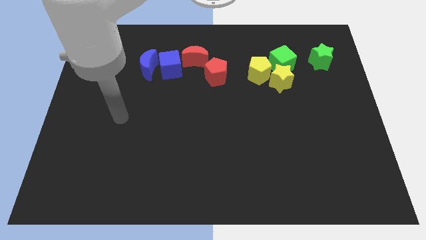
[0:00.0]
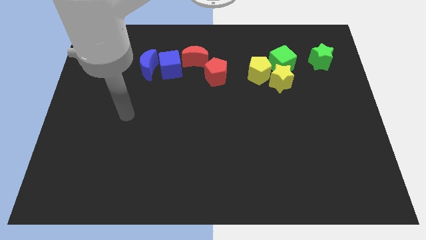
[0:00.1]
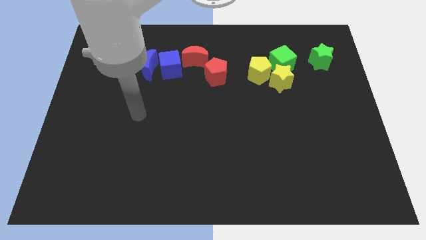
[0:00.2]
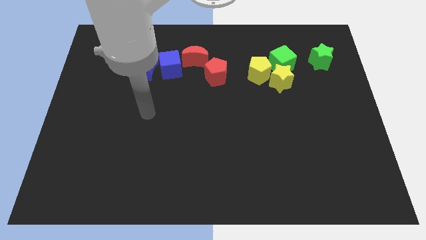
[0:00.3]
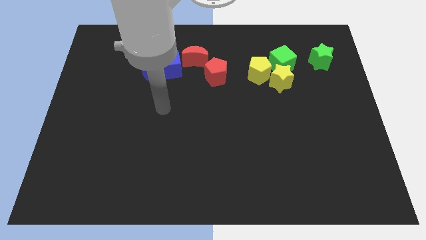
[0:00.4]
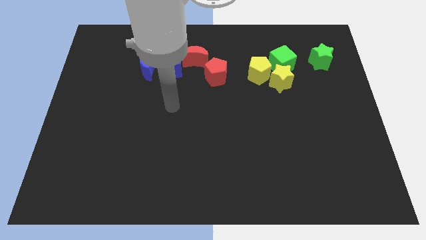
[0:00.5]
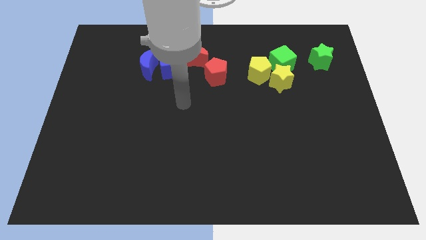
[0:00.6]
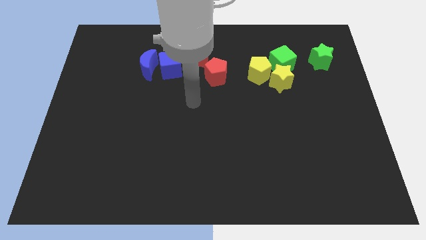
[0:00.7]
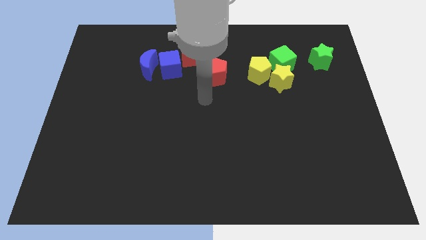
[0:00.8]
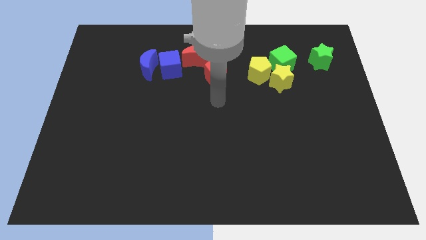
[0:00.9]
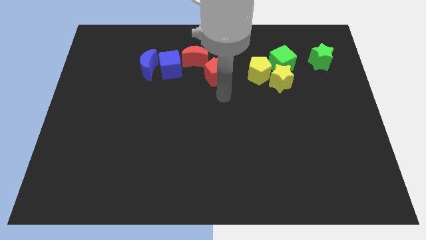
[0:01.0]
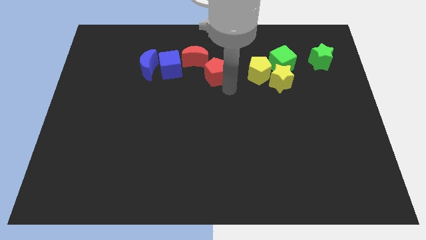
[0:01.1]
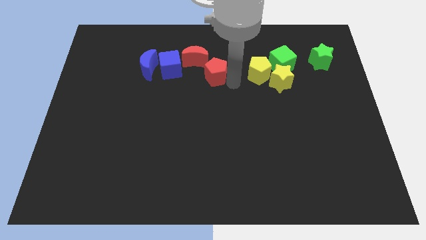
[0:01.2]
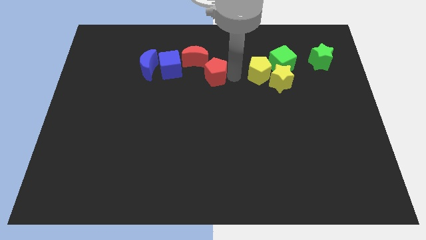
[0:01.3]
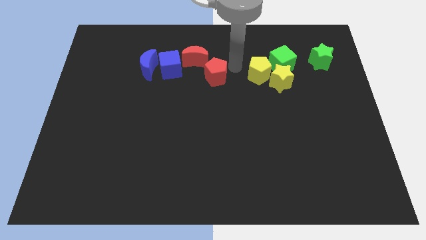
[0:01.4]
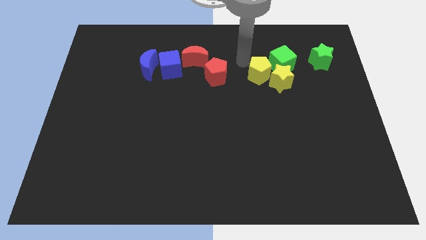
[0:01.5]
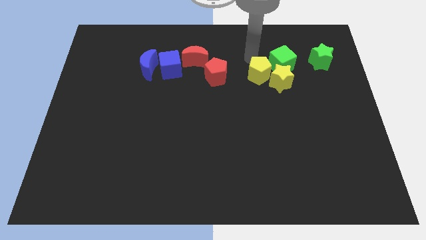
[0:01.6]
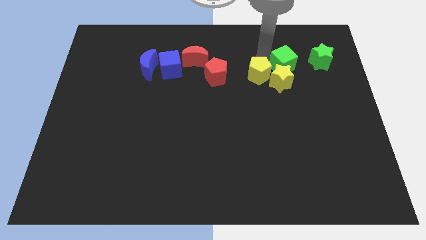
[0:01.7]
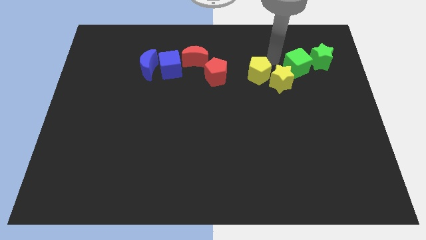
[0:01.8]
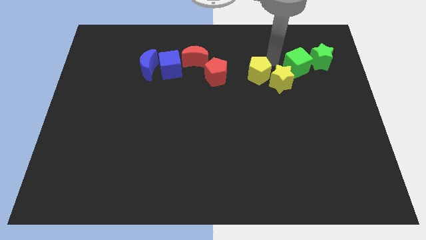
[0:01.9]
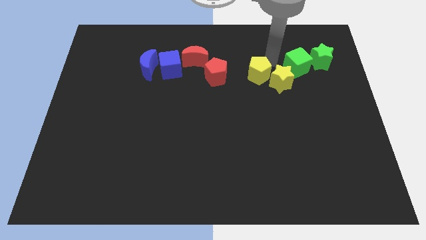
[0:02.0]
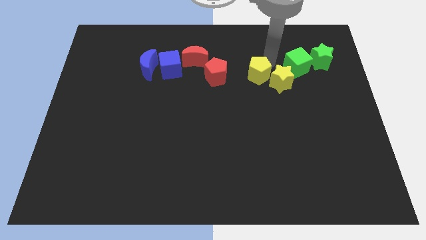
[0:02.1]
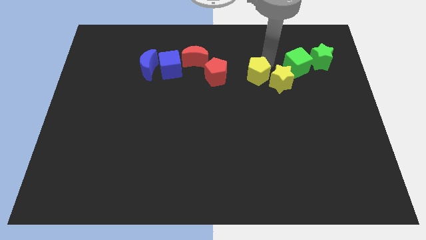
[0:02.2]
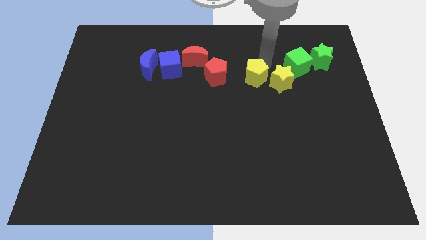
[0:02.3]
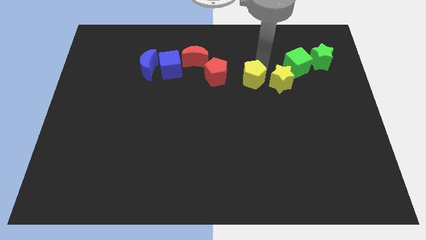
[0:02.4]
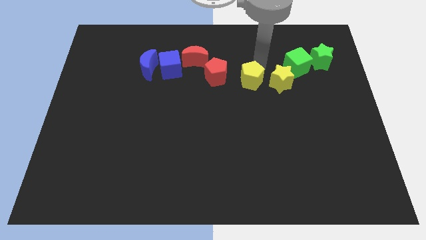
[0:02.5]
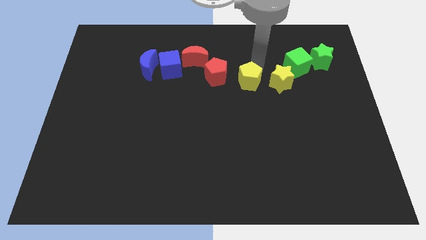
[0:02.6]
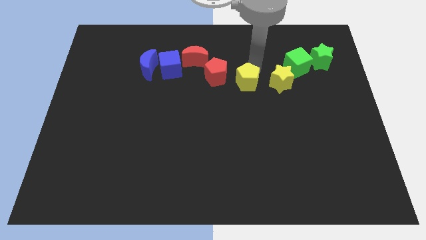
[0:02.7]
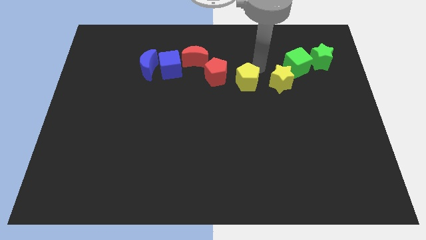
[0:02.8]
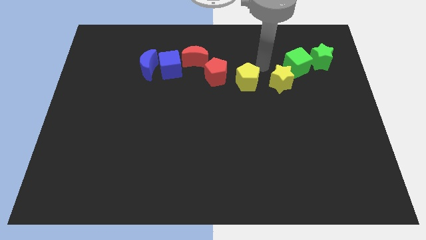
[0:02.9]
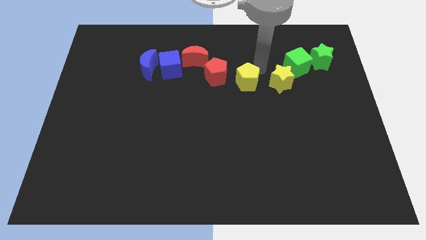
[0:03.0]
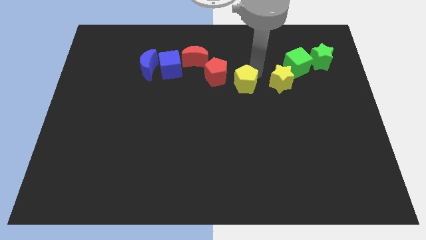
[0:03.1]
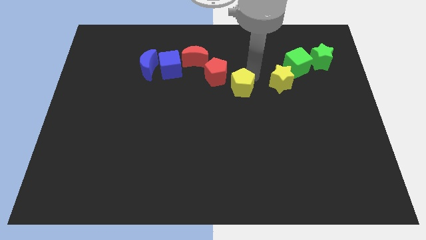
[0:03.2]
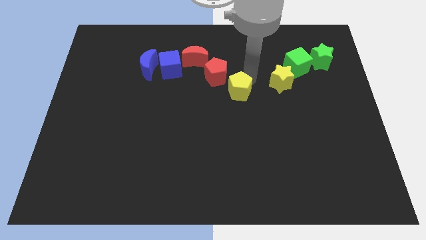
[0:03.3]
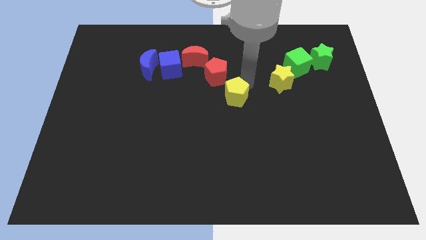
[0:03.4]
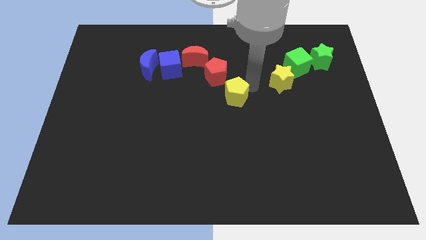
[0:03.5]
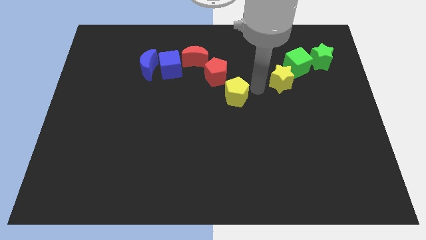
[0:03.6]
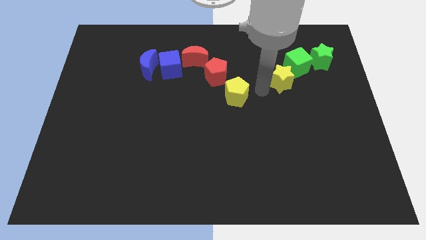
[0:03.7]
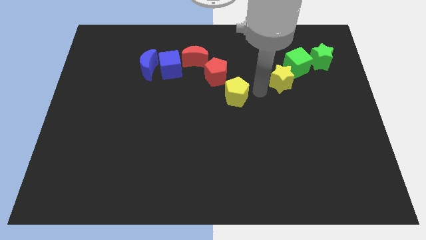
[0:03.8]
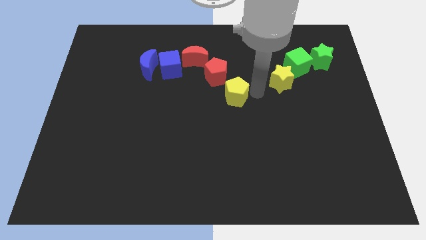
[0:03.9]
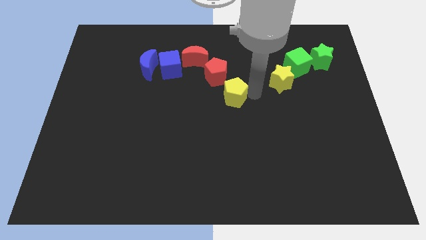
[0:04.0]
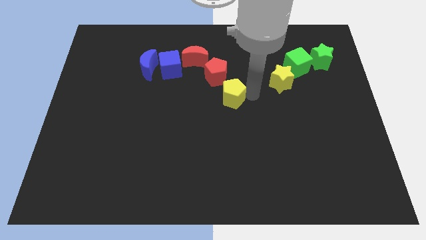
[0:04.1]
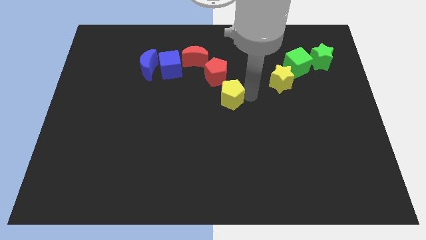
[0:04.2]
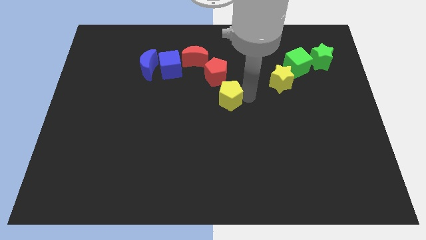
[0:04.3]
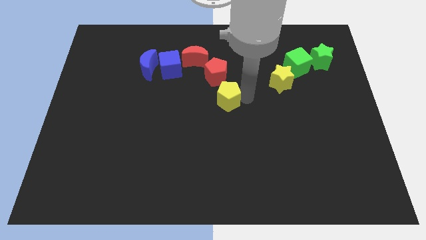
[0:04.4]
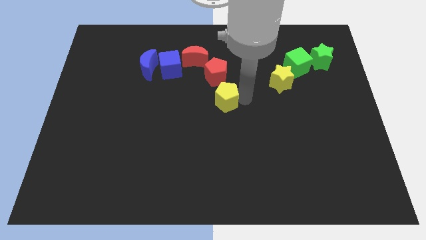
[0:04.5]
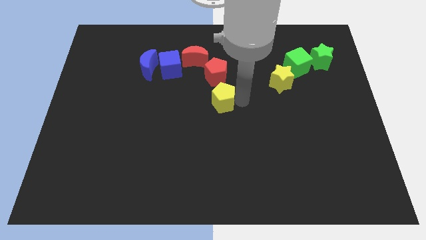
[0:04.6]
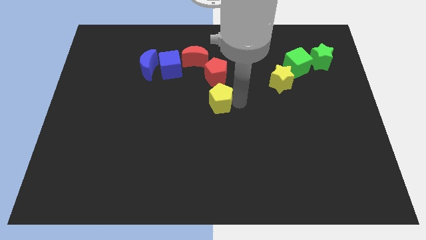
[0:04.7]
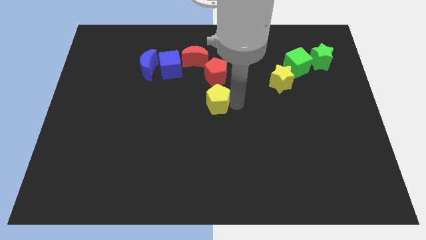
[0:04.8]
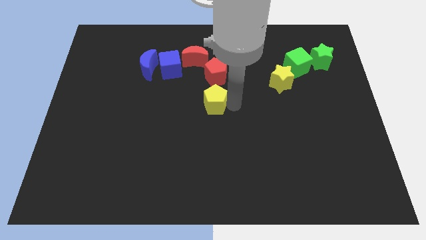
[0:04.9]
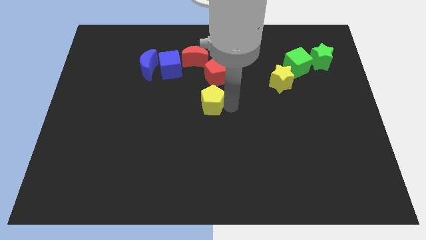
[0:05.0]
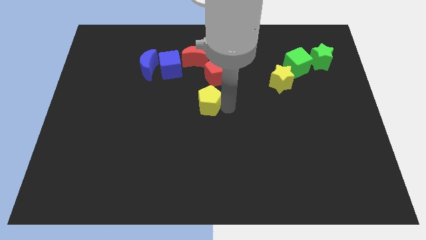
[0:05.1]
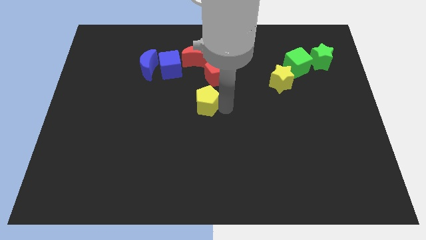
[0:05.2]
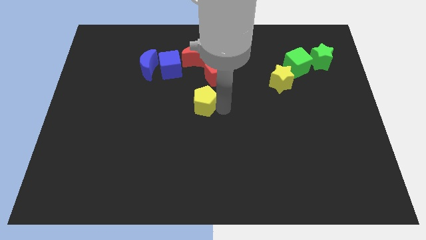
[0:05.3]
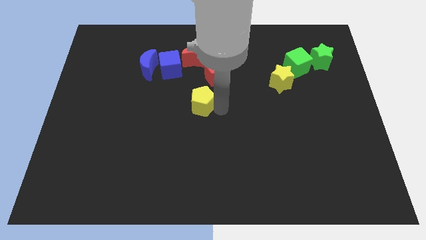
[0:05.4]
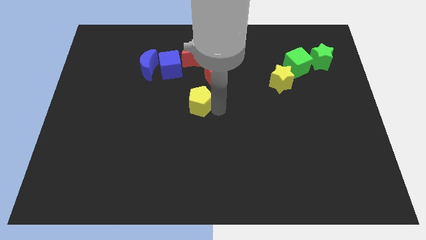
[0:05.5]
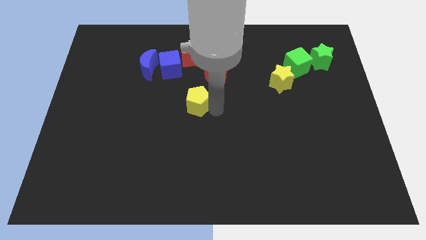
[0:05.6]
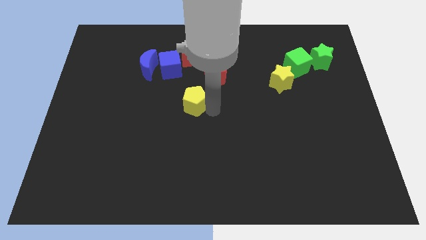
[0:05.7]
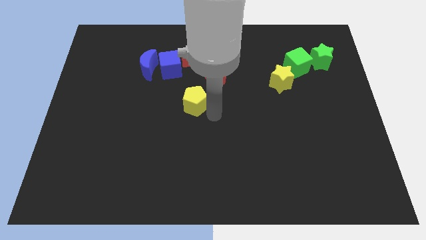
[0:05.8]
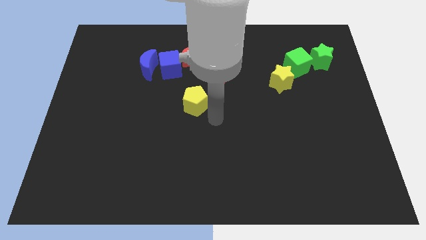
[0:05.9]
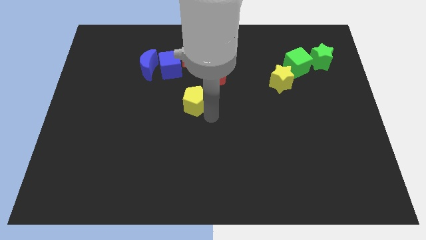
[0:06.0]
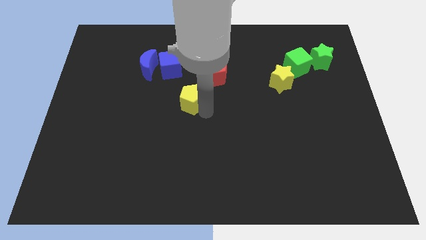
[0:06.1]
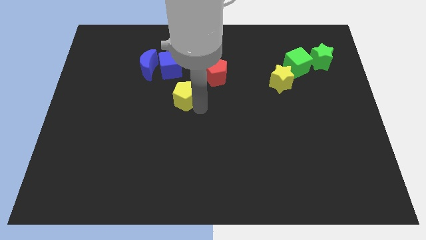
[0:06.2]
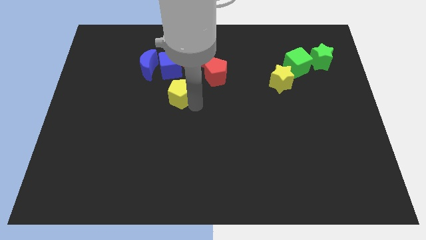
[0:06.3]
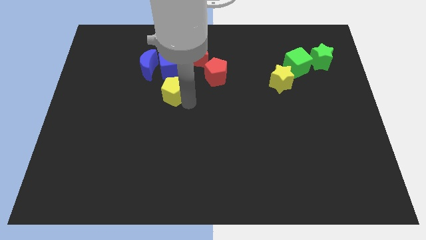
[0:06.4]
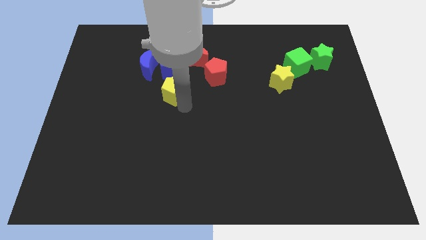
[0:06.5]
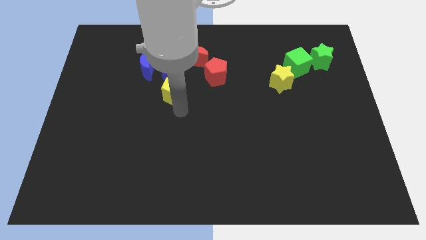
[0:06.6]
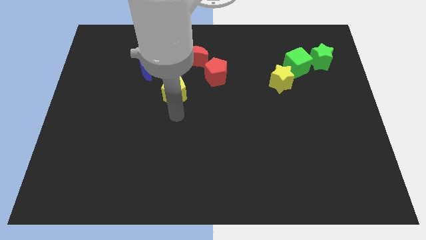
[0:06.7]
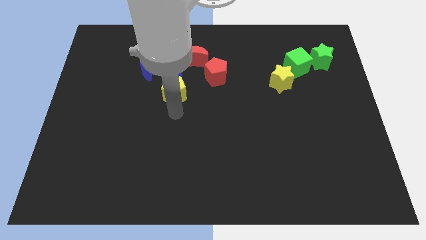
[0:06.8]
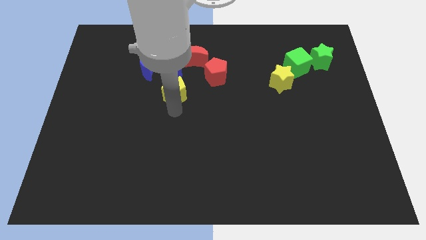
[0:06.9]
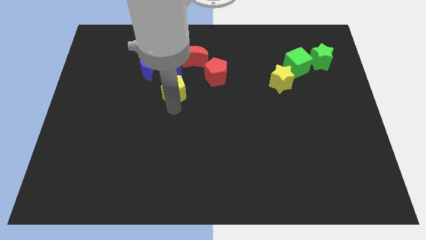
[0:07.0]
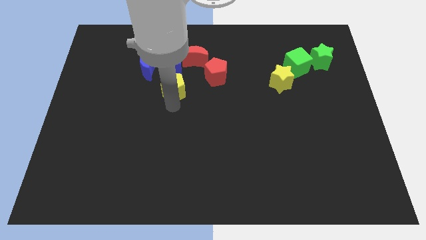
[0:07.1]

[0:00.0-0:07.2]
put the yellow pentagon to the bottom left side of the red moon
